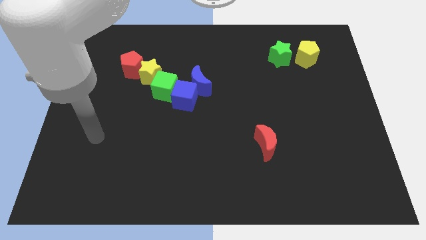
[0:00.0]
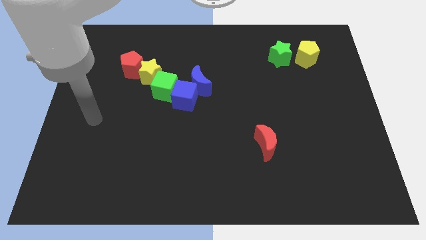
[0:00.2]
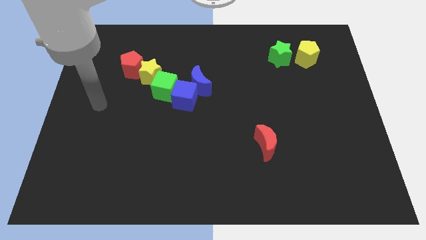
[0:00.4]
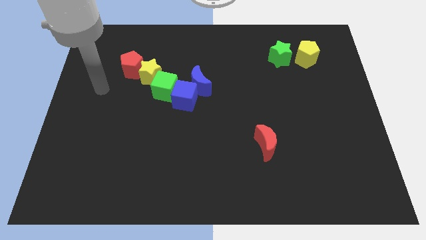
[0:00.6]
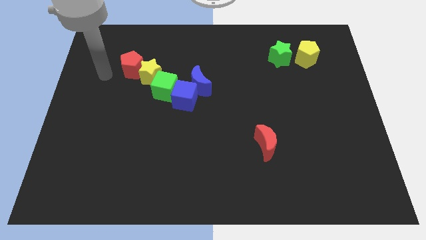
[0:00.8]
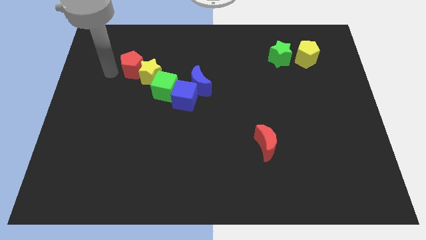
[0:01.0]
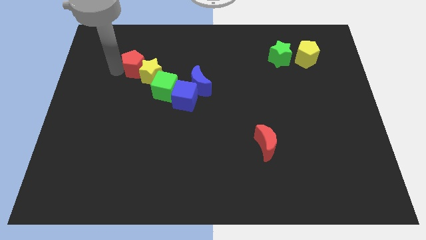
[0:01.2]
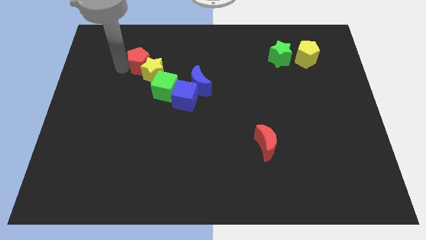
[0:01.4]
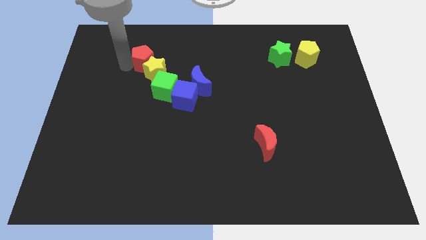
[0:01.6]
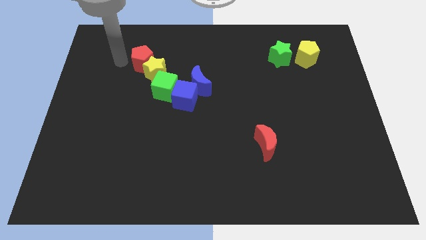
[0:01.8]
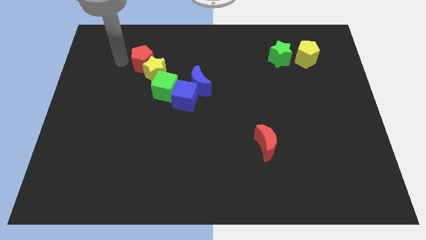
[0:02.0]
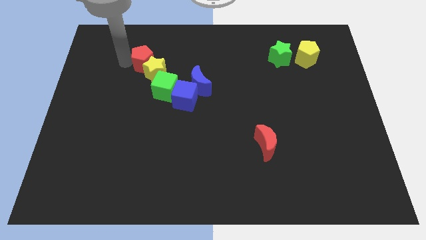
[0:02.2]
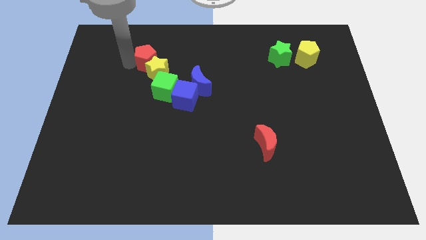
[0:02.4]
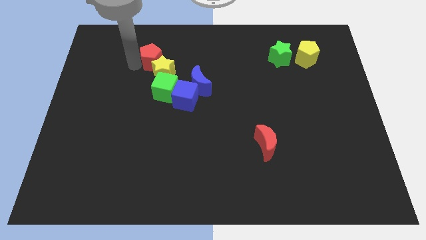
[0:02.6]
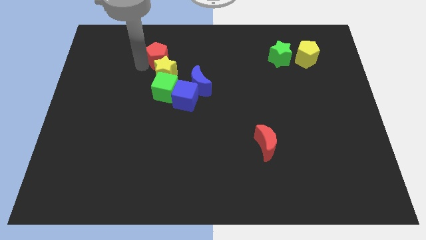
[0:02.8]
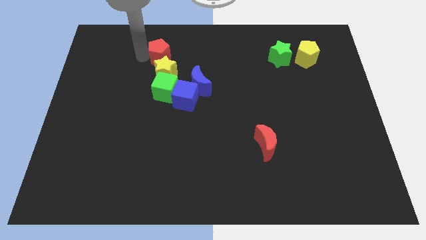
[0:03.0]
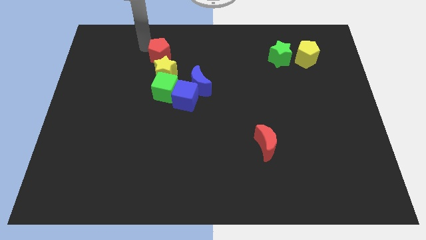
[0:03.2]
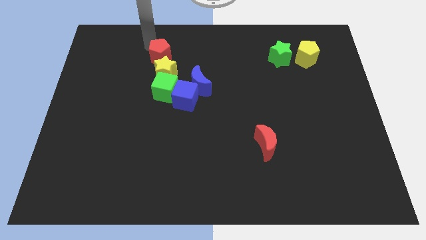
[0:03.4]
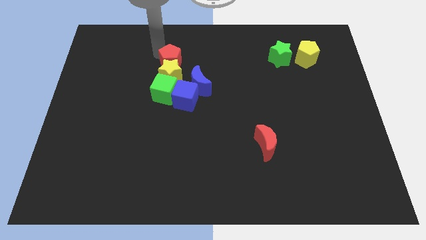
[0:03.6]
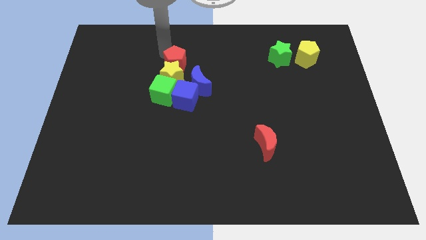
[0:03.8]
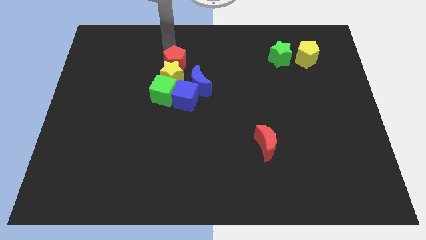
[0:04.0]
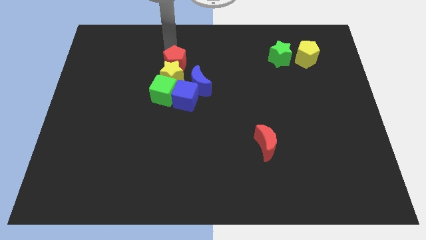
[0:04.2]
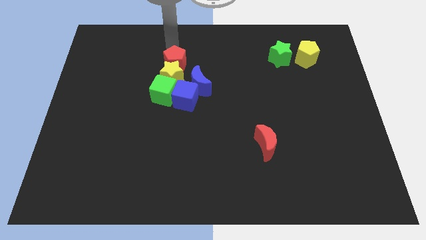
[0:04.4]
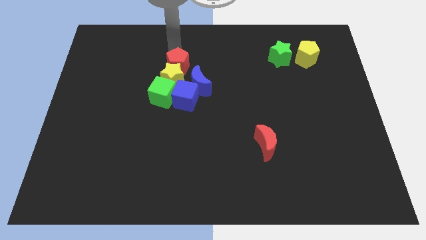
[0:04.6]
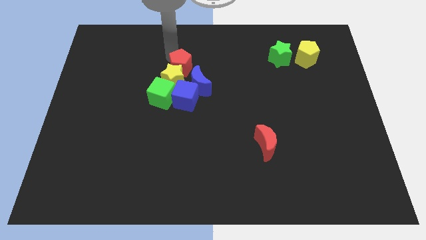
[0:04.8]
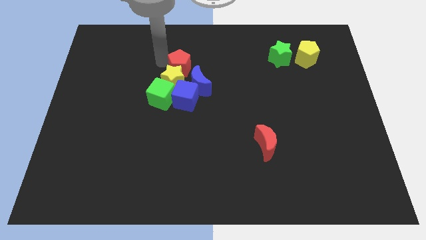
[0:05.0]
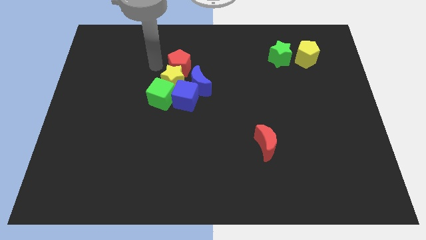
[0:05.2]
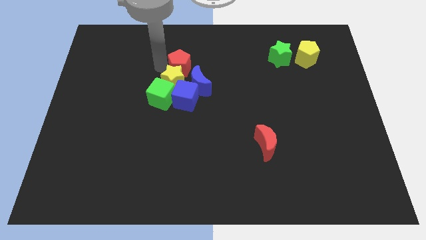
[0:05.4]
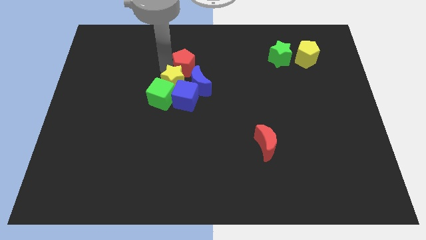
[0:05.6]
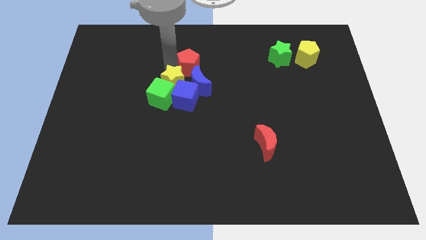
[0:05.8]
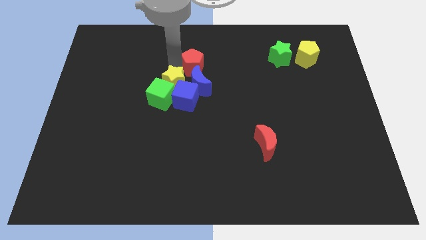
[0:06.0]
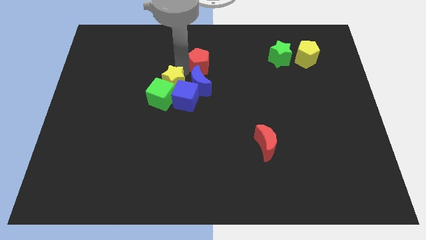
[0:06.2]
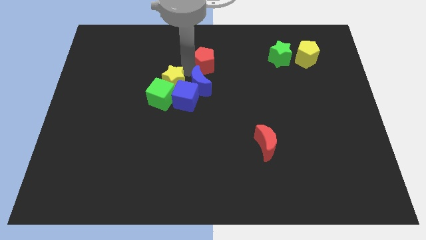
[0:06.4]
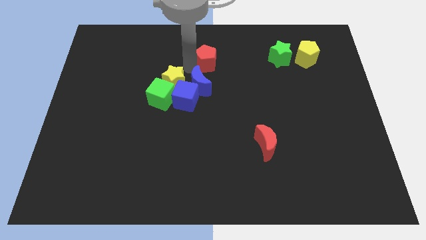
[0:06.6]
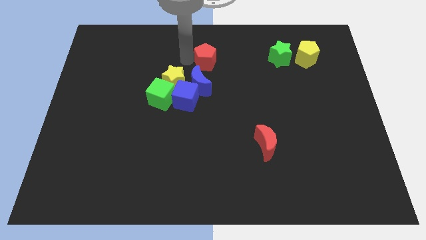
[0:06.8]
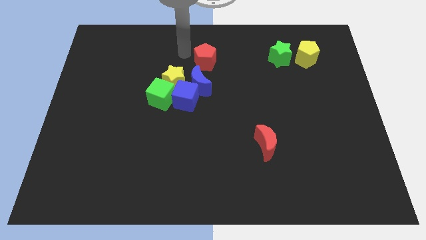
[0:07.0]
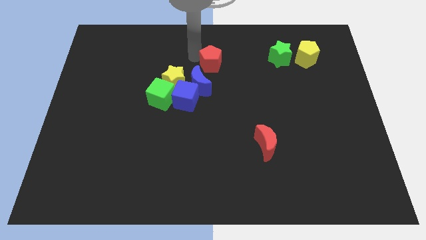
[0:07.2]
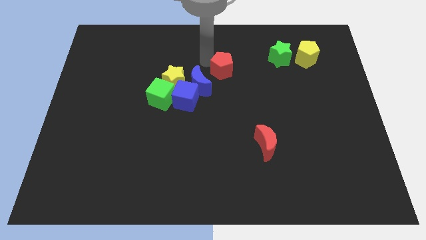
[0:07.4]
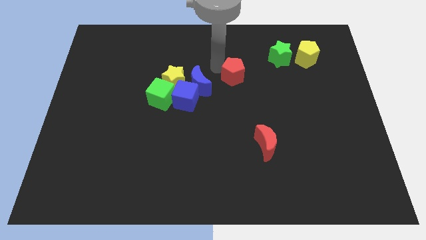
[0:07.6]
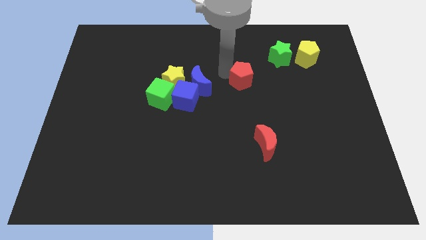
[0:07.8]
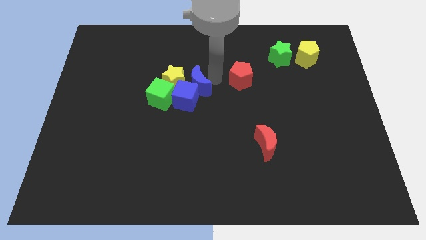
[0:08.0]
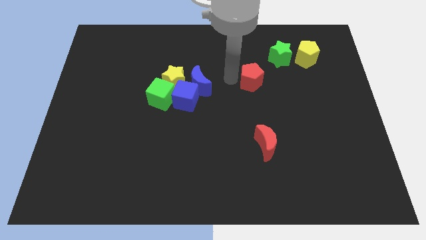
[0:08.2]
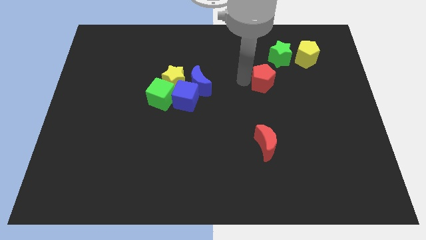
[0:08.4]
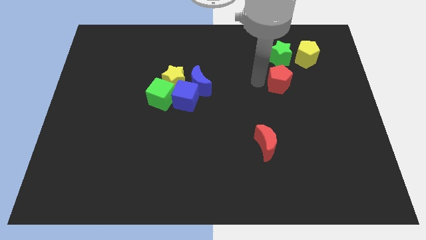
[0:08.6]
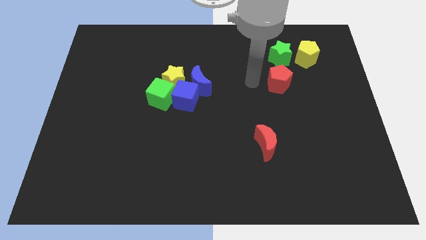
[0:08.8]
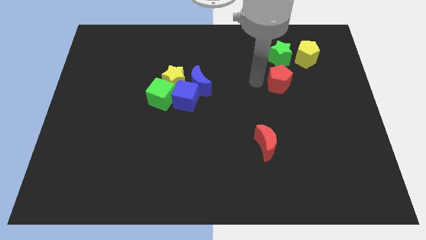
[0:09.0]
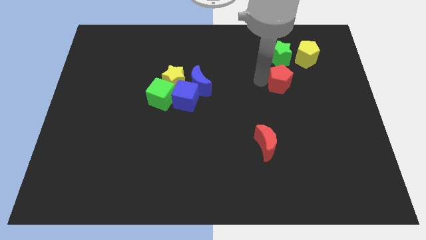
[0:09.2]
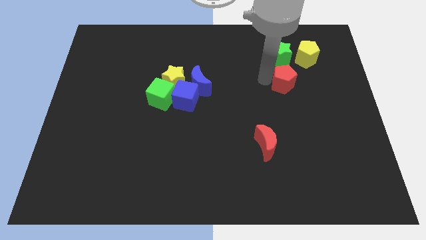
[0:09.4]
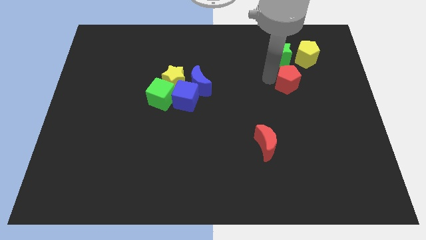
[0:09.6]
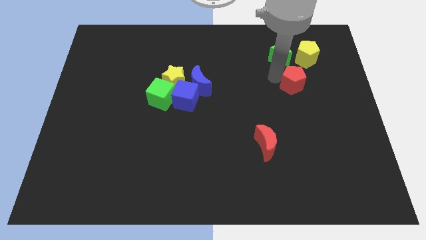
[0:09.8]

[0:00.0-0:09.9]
put the red pentagon to the bottom of the yellow pentagon

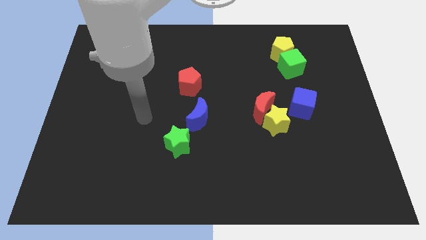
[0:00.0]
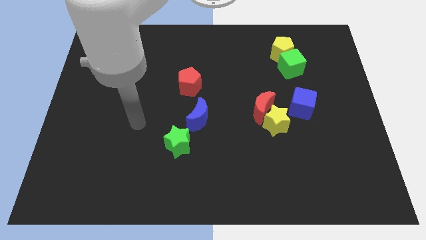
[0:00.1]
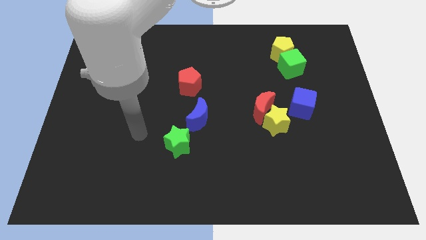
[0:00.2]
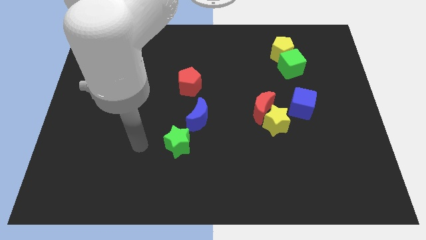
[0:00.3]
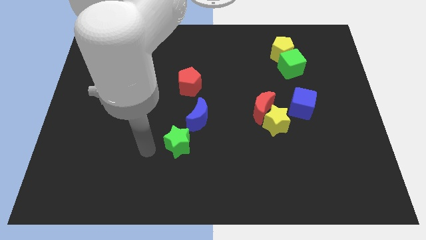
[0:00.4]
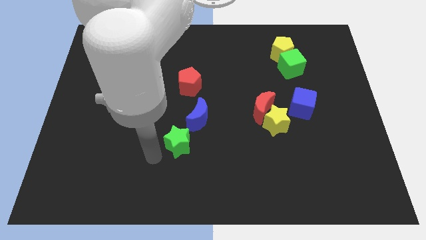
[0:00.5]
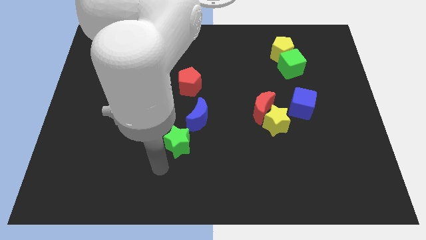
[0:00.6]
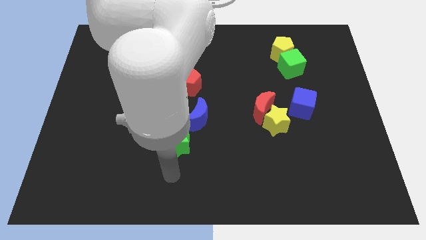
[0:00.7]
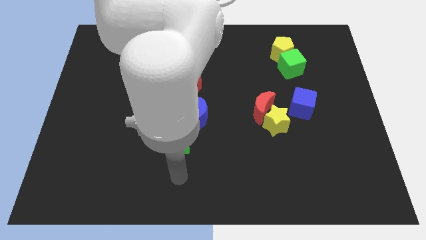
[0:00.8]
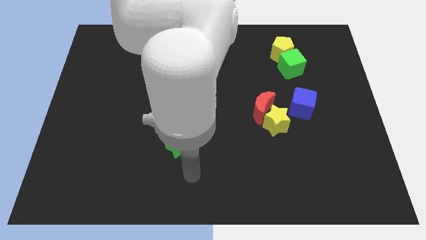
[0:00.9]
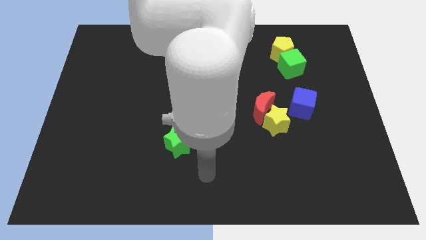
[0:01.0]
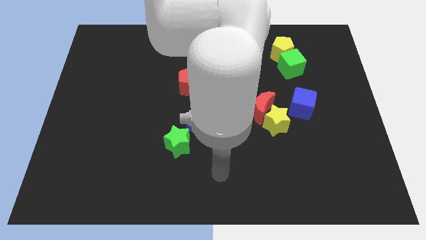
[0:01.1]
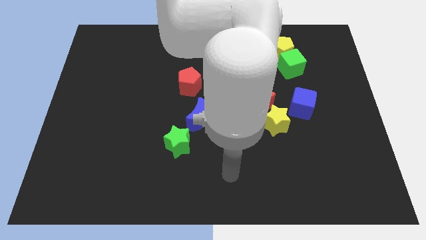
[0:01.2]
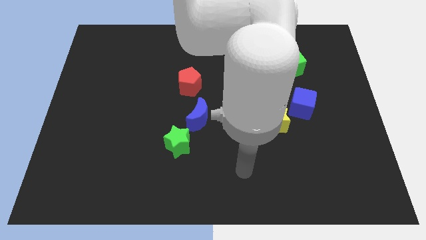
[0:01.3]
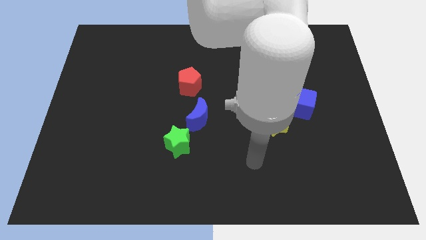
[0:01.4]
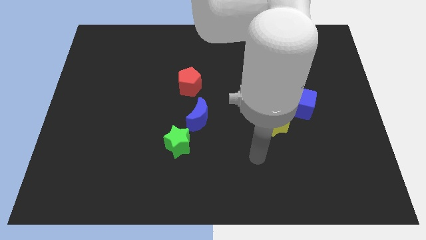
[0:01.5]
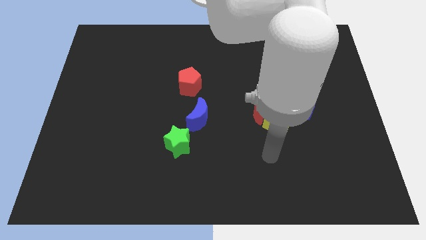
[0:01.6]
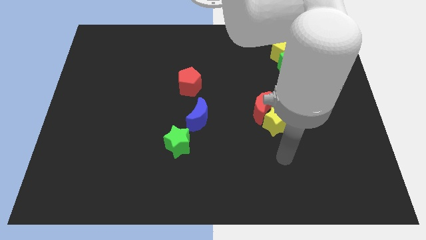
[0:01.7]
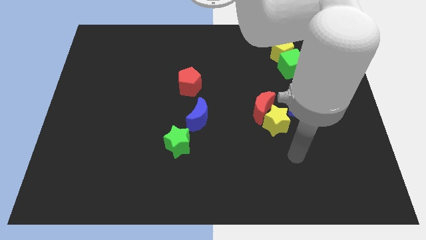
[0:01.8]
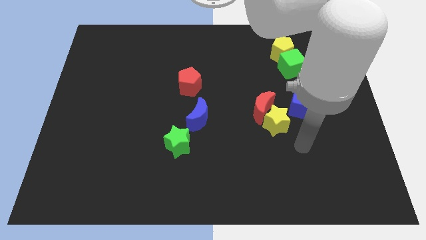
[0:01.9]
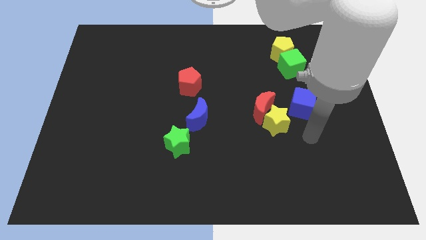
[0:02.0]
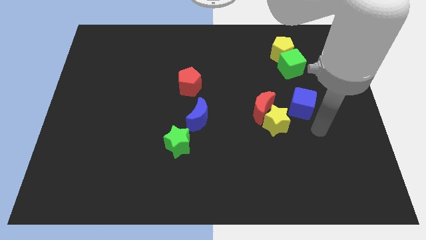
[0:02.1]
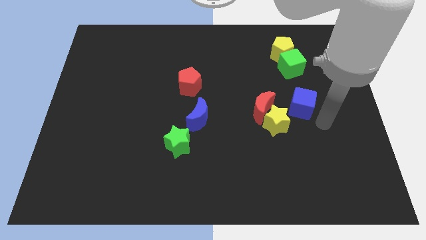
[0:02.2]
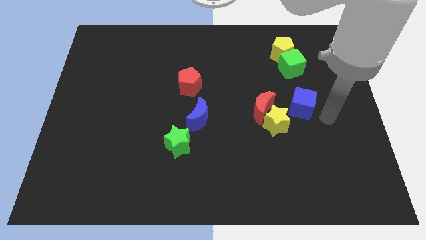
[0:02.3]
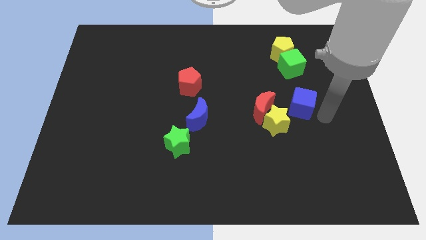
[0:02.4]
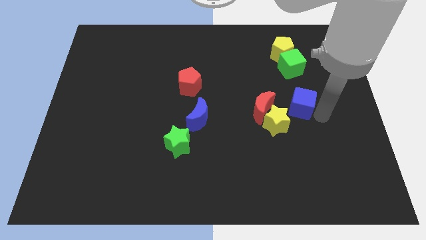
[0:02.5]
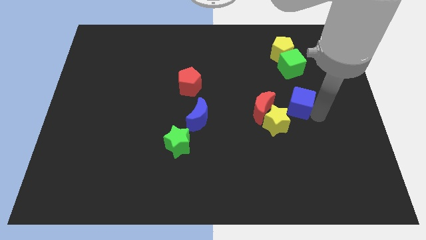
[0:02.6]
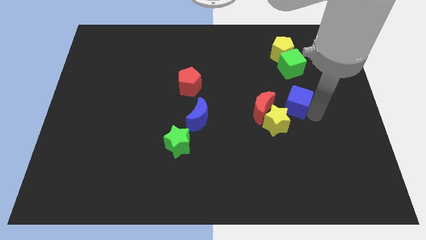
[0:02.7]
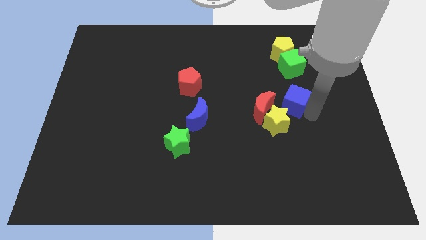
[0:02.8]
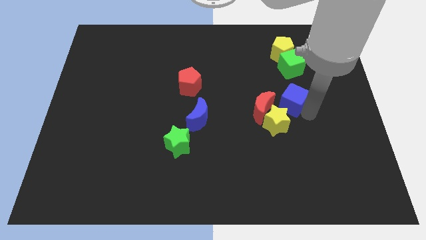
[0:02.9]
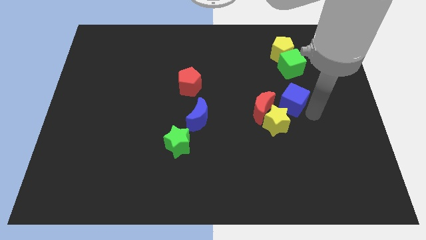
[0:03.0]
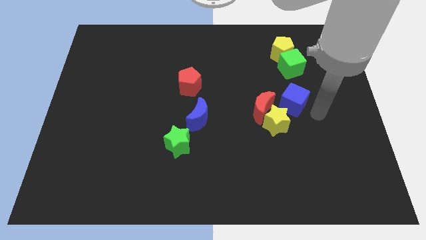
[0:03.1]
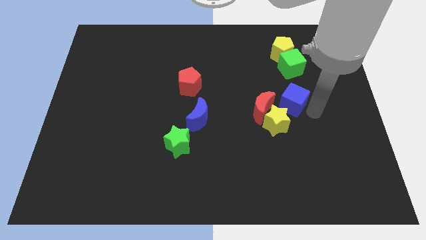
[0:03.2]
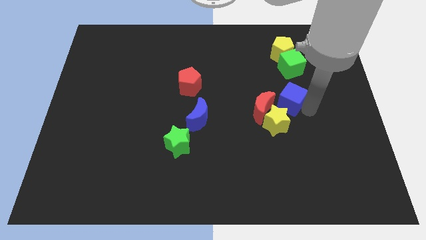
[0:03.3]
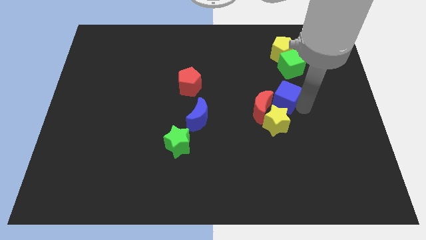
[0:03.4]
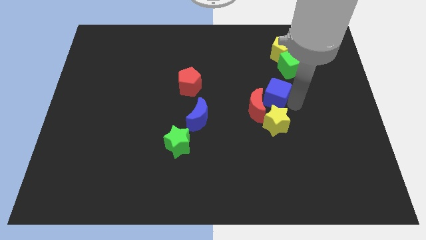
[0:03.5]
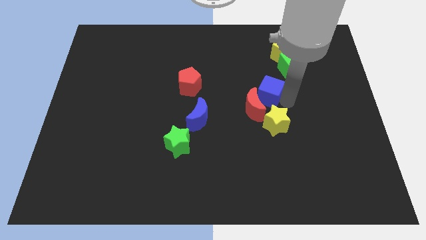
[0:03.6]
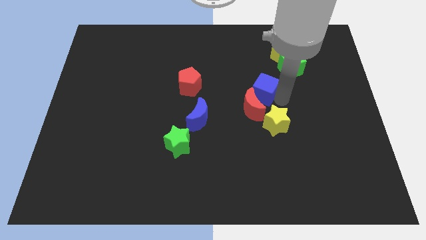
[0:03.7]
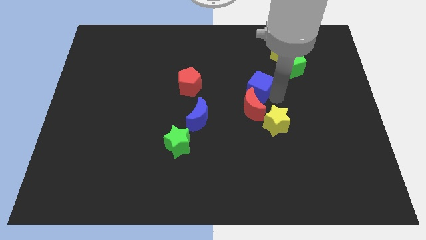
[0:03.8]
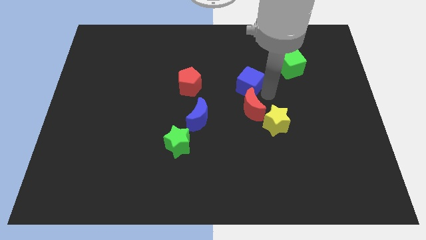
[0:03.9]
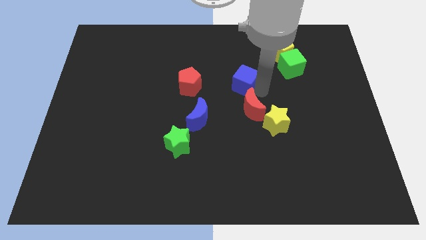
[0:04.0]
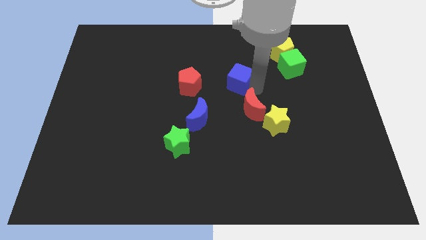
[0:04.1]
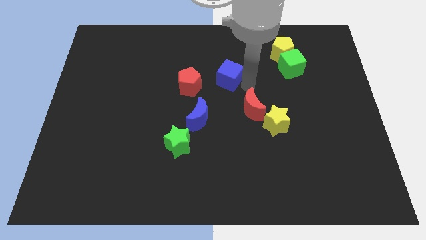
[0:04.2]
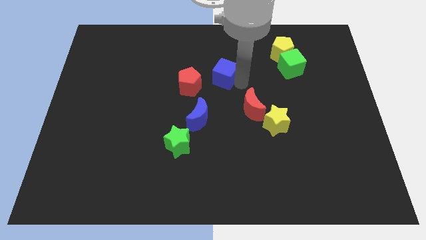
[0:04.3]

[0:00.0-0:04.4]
move the blue cube to the top right side of the red pentagon
